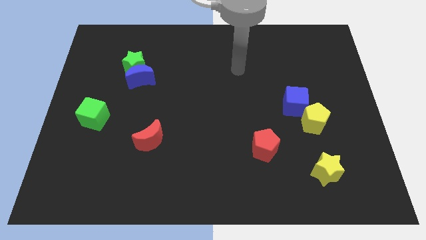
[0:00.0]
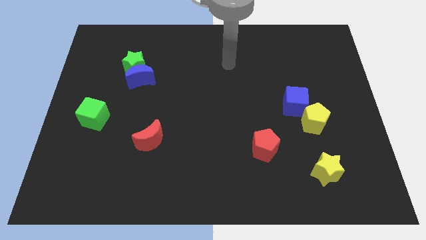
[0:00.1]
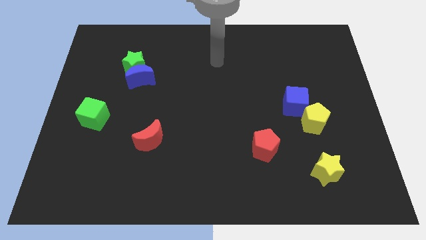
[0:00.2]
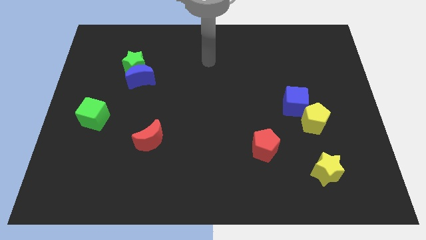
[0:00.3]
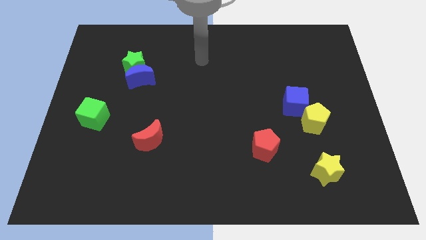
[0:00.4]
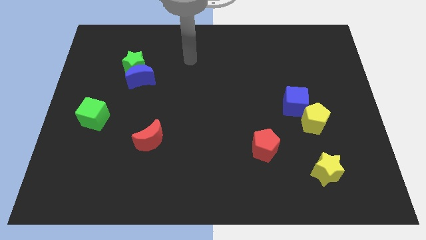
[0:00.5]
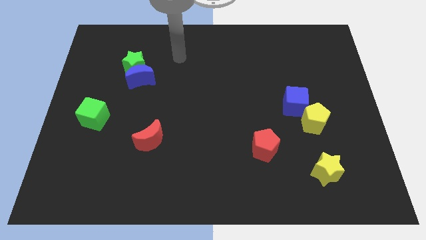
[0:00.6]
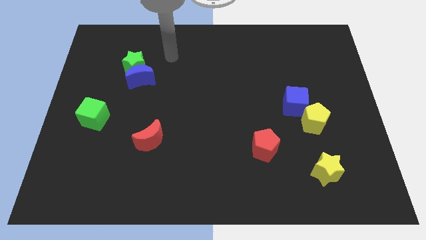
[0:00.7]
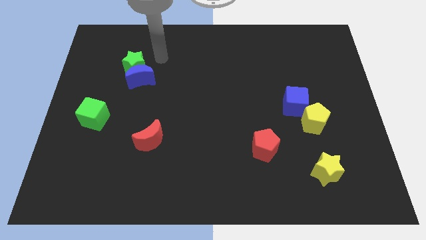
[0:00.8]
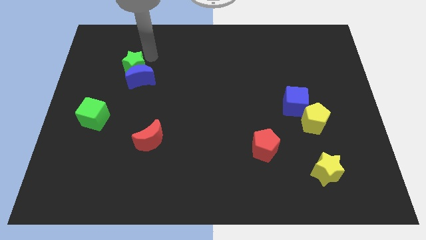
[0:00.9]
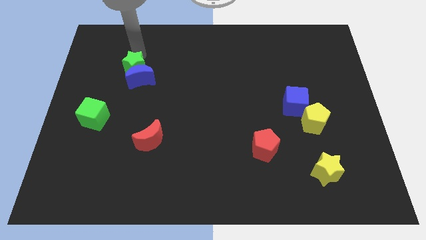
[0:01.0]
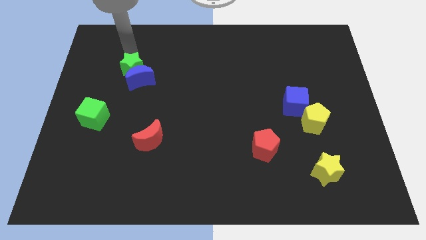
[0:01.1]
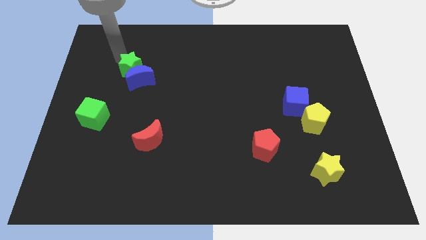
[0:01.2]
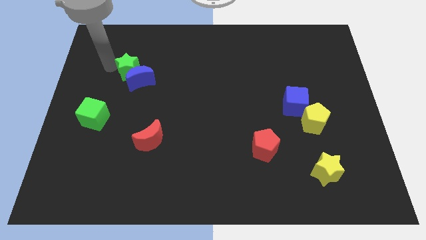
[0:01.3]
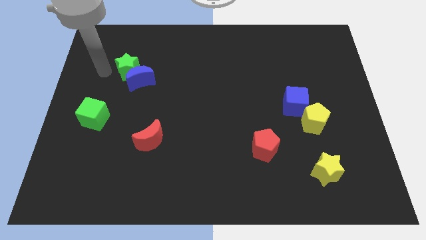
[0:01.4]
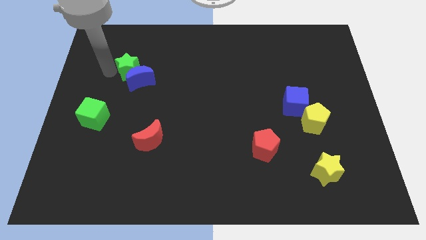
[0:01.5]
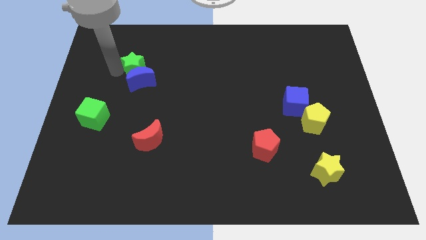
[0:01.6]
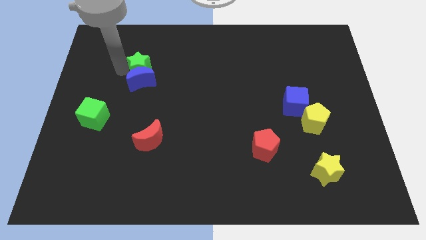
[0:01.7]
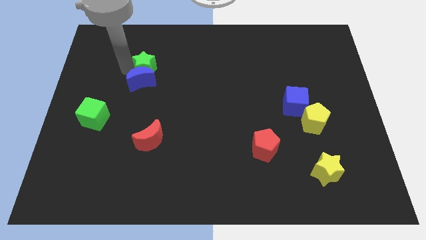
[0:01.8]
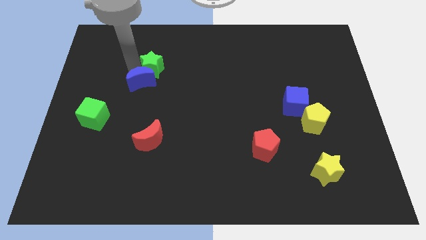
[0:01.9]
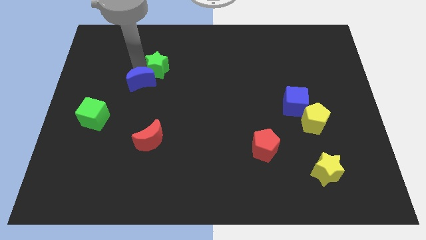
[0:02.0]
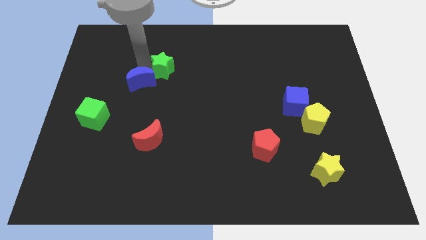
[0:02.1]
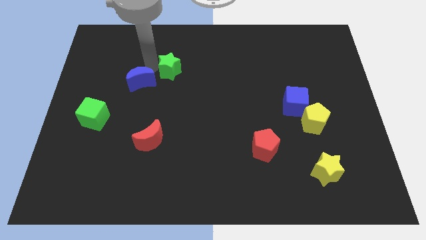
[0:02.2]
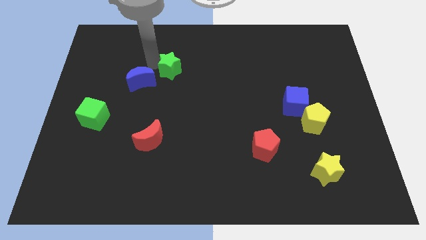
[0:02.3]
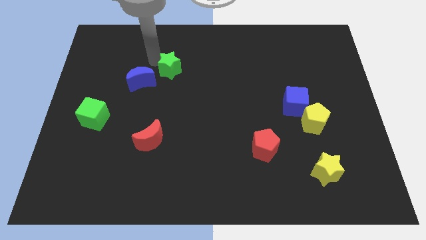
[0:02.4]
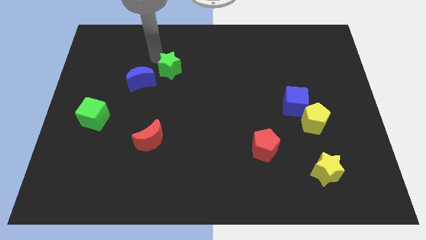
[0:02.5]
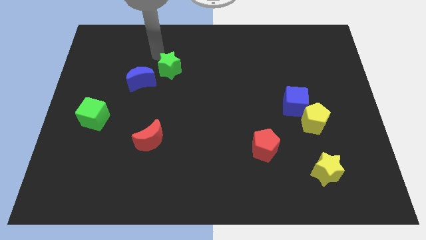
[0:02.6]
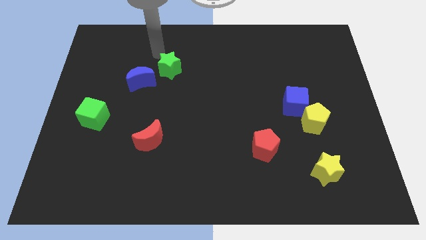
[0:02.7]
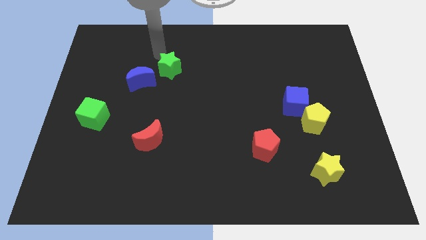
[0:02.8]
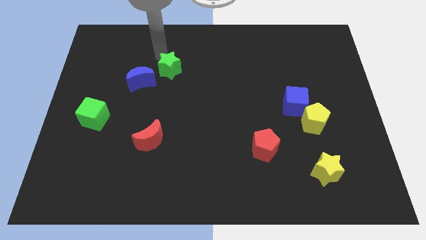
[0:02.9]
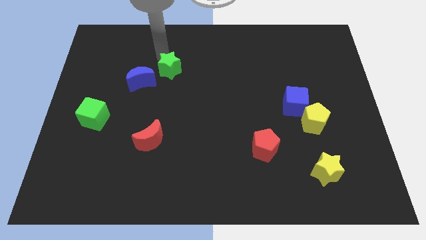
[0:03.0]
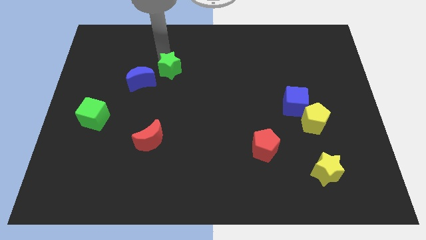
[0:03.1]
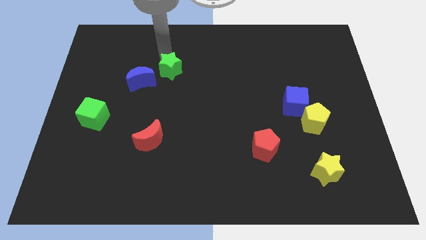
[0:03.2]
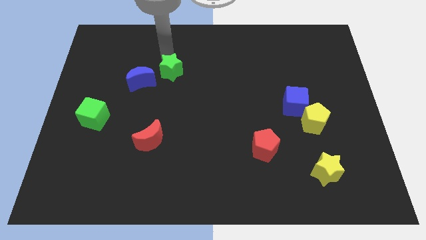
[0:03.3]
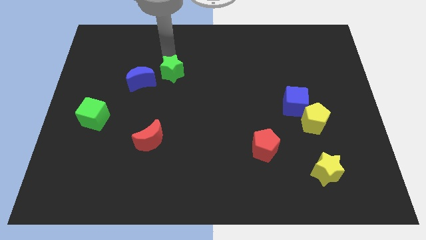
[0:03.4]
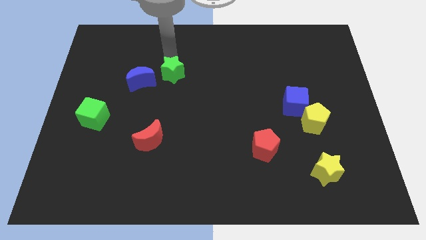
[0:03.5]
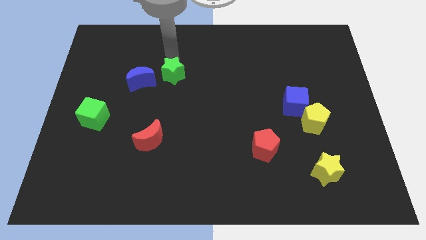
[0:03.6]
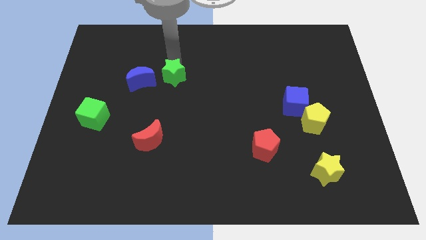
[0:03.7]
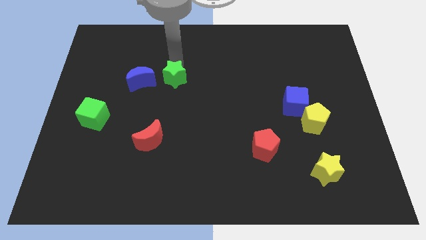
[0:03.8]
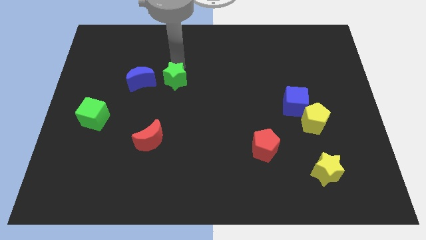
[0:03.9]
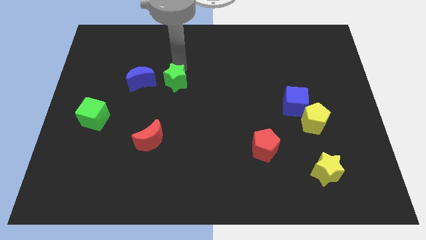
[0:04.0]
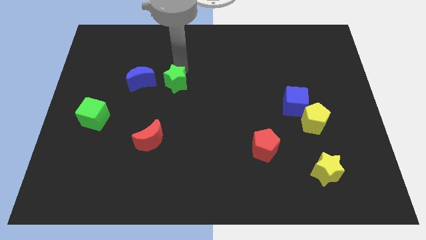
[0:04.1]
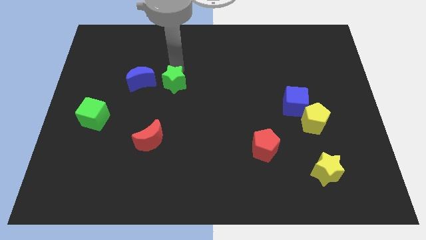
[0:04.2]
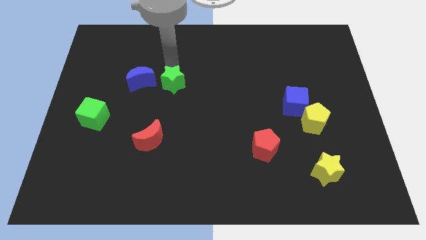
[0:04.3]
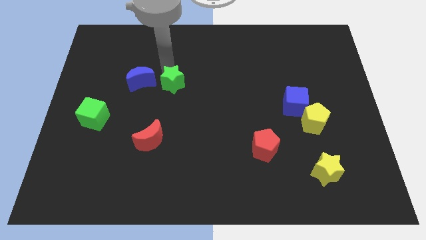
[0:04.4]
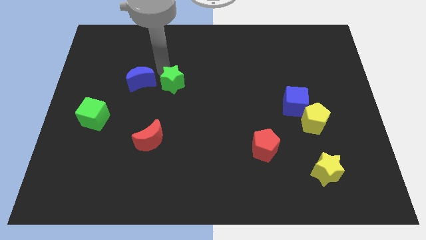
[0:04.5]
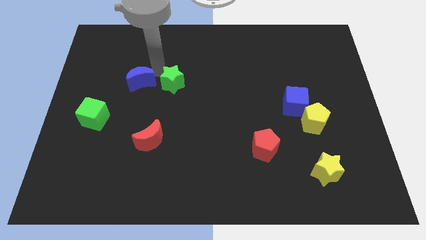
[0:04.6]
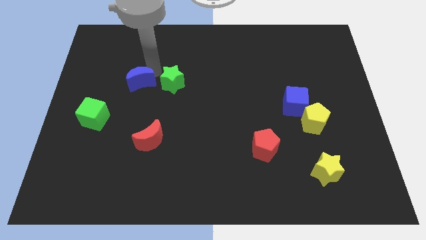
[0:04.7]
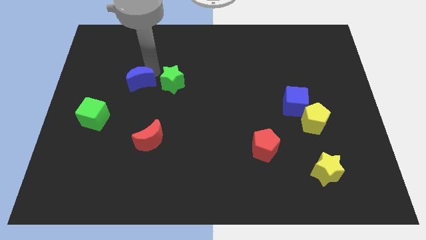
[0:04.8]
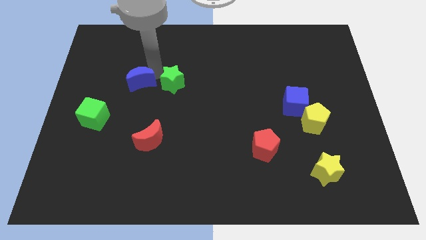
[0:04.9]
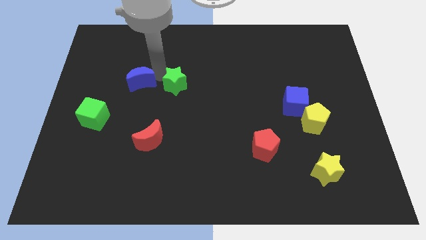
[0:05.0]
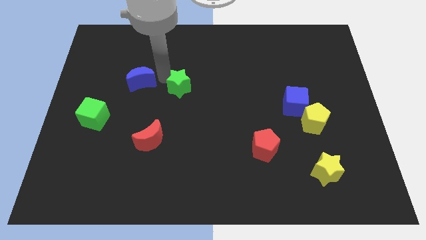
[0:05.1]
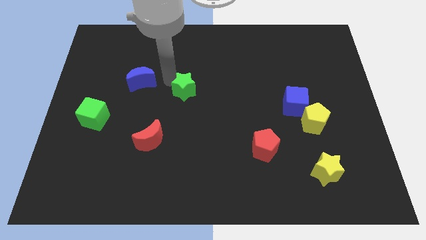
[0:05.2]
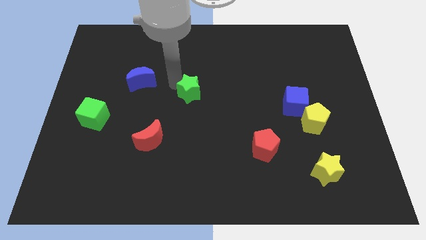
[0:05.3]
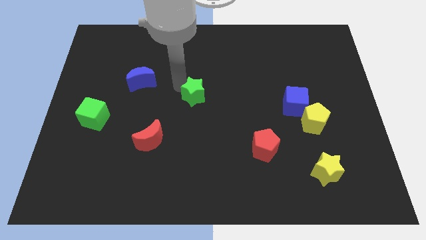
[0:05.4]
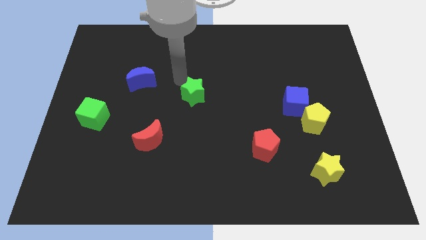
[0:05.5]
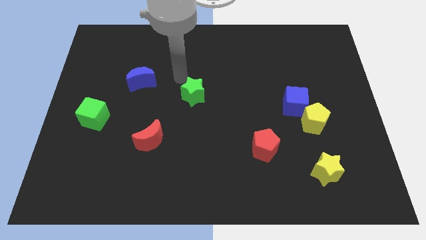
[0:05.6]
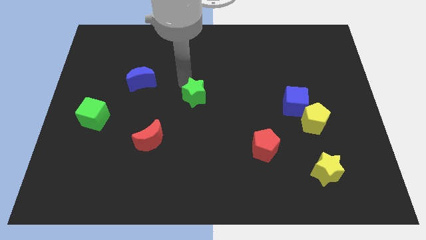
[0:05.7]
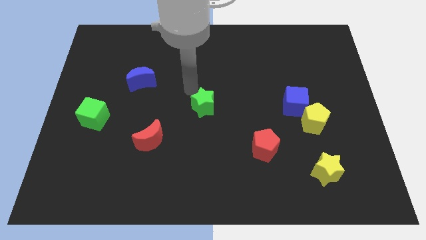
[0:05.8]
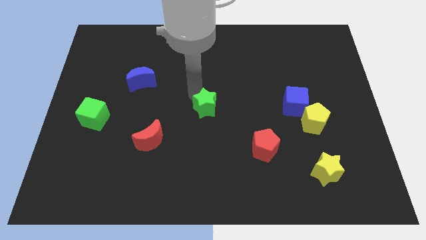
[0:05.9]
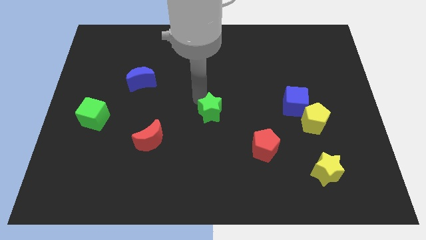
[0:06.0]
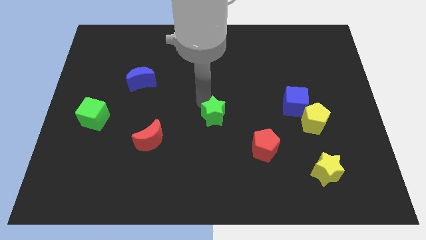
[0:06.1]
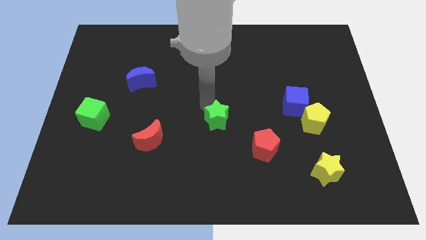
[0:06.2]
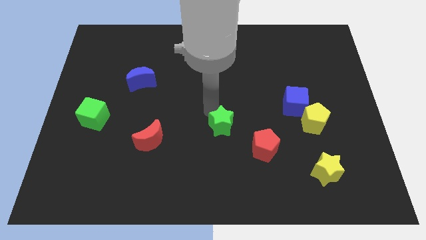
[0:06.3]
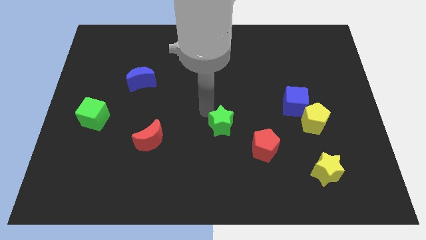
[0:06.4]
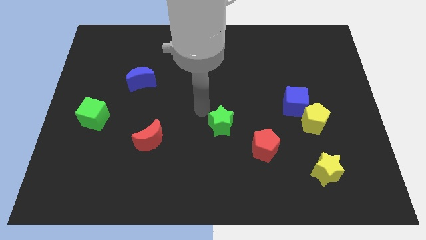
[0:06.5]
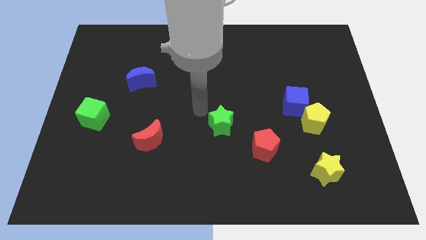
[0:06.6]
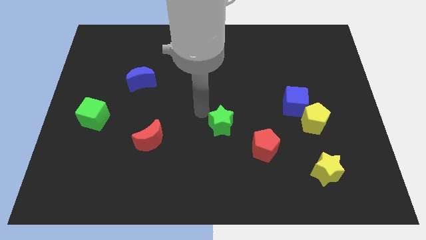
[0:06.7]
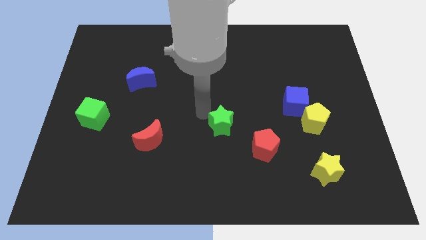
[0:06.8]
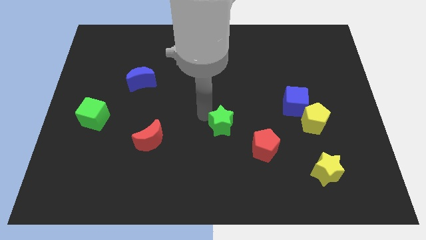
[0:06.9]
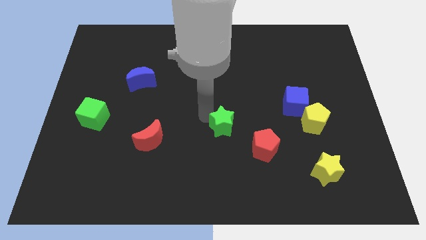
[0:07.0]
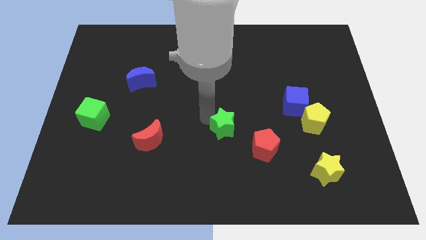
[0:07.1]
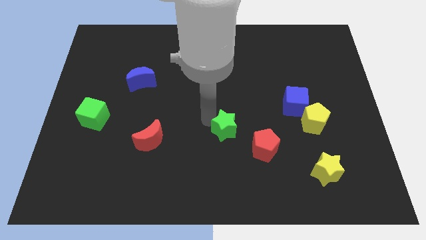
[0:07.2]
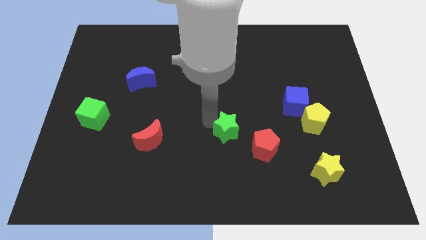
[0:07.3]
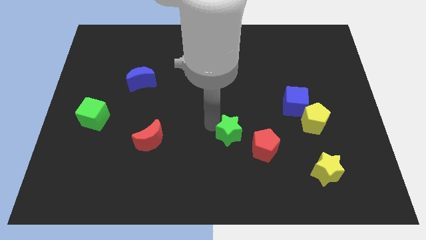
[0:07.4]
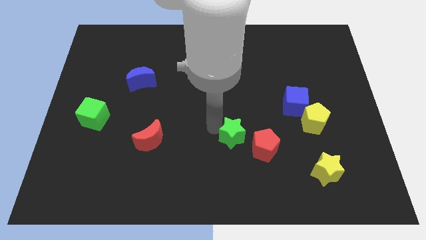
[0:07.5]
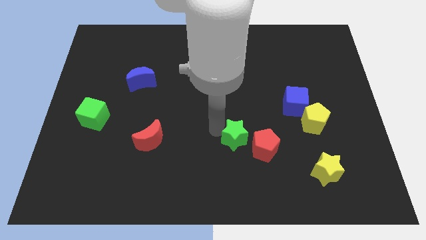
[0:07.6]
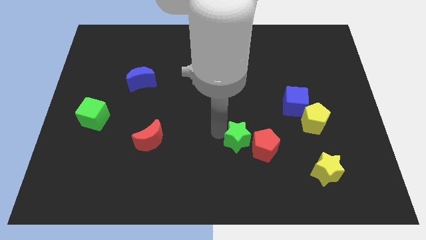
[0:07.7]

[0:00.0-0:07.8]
push the green star next to the red pentagon

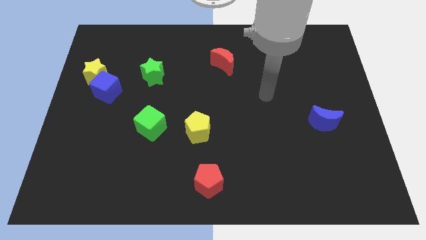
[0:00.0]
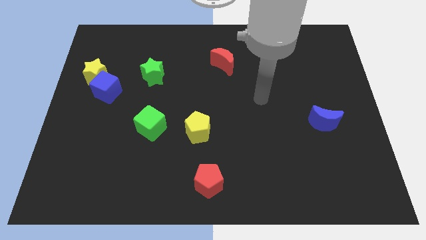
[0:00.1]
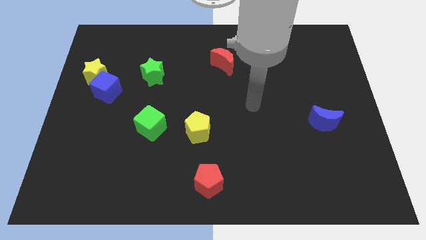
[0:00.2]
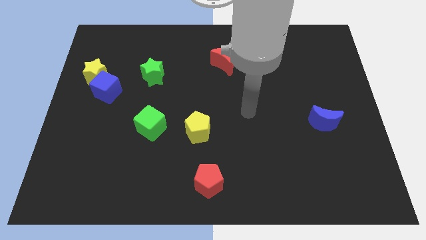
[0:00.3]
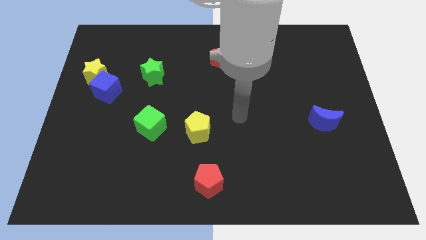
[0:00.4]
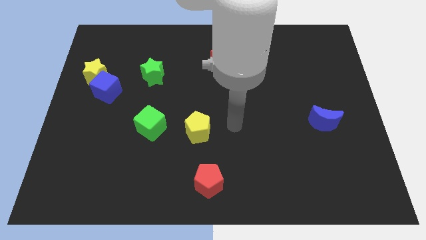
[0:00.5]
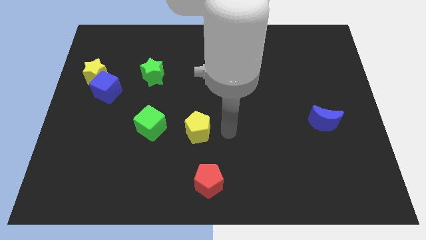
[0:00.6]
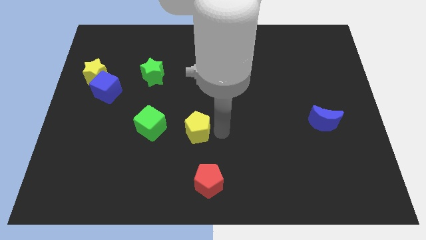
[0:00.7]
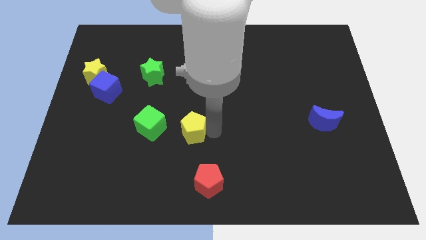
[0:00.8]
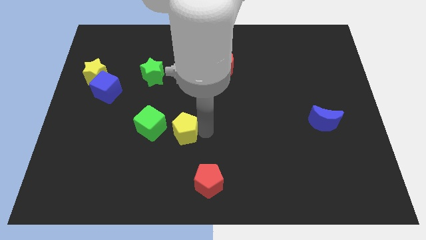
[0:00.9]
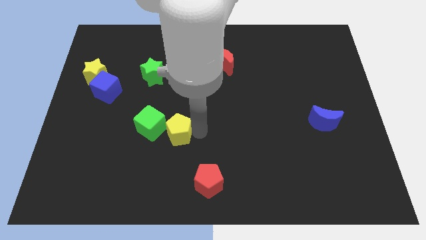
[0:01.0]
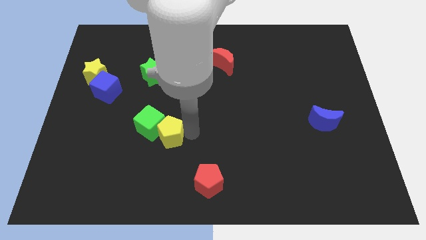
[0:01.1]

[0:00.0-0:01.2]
slide the yellow pentagon towards the green cube
